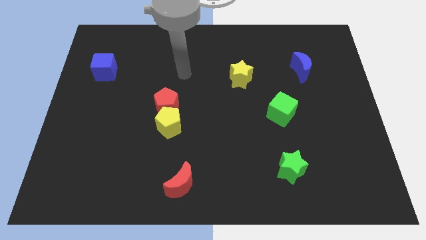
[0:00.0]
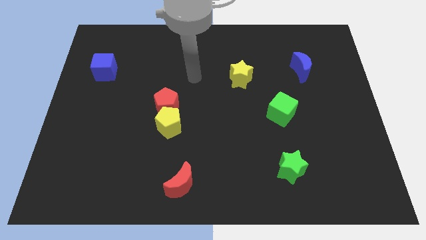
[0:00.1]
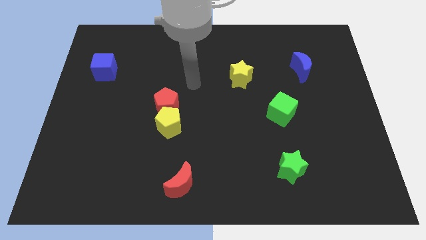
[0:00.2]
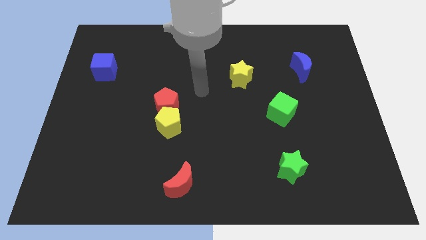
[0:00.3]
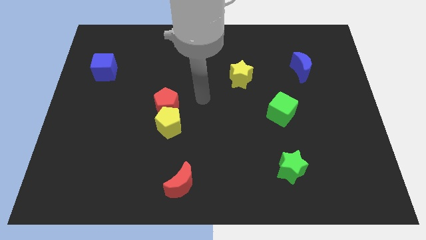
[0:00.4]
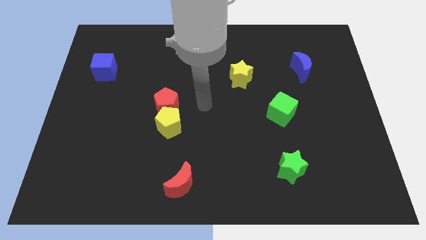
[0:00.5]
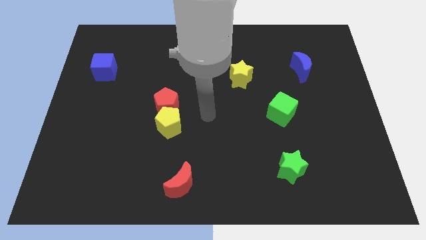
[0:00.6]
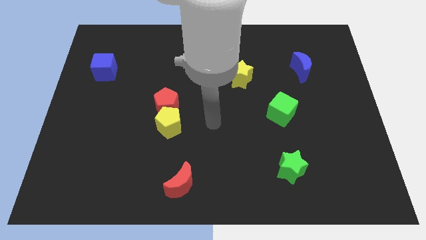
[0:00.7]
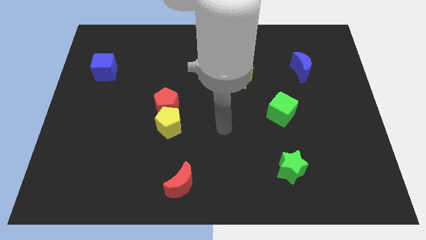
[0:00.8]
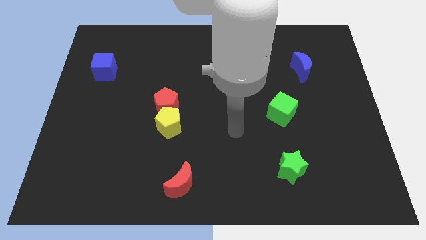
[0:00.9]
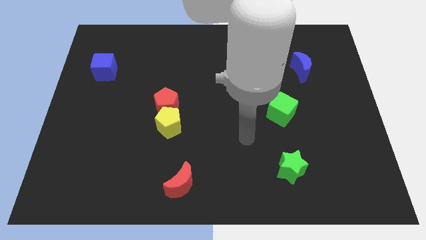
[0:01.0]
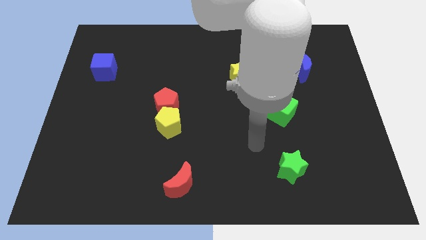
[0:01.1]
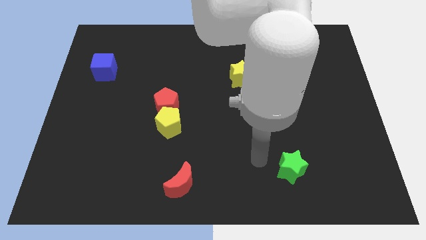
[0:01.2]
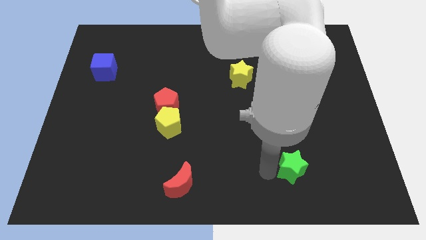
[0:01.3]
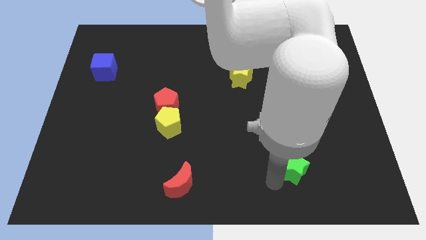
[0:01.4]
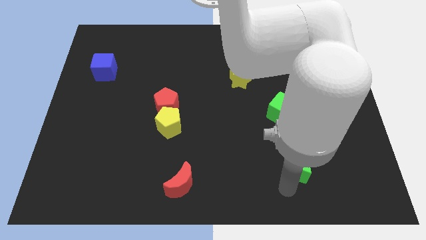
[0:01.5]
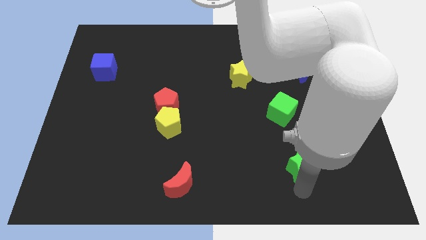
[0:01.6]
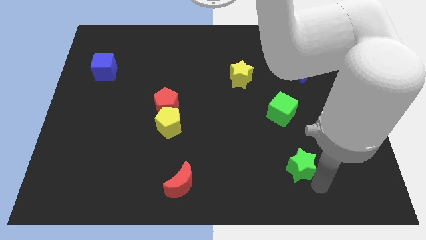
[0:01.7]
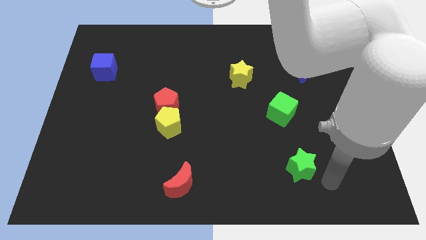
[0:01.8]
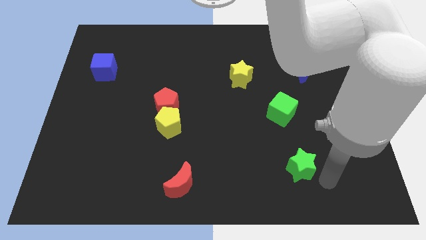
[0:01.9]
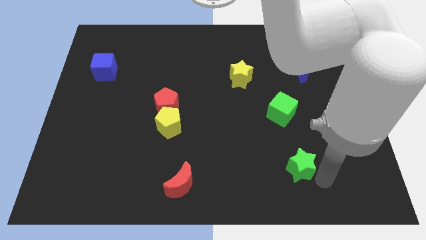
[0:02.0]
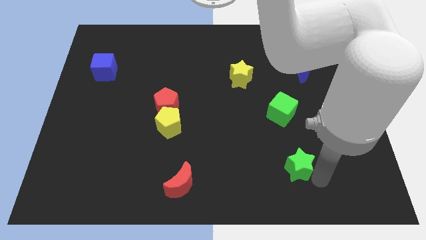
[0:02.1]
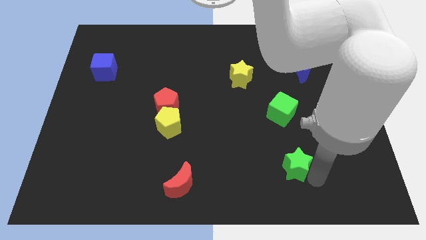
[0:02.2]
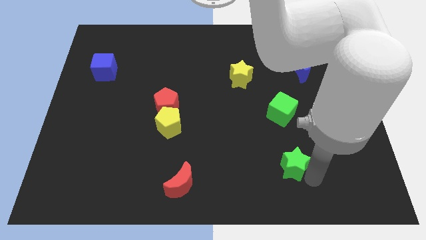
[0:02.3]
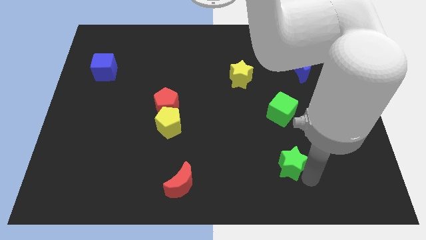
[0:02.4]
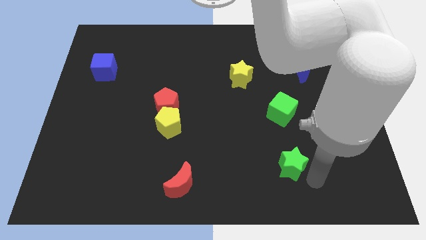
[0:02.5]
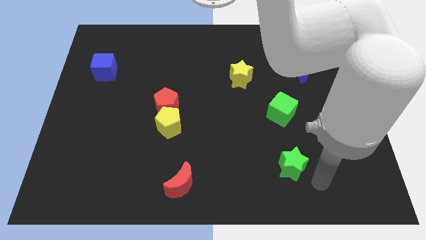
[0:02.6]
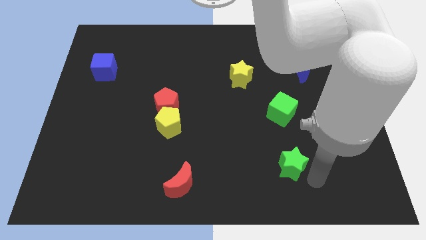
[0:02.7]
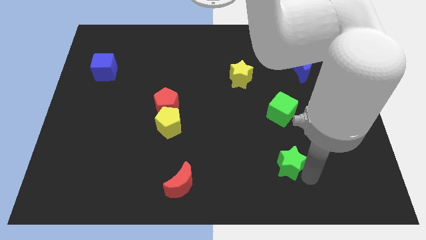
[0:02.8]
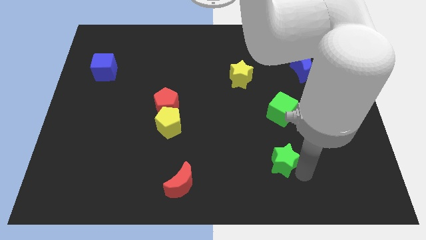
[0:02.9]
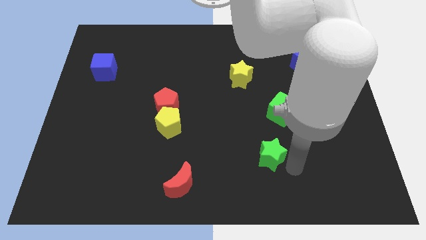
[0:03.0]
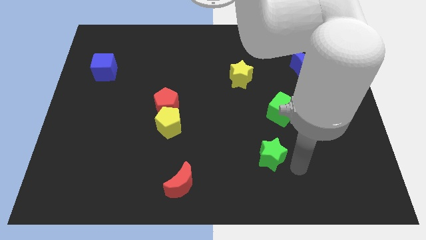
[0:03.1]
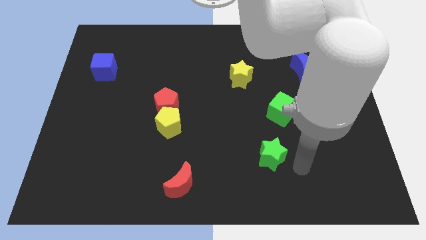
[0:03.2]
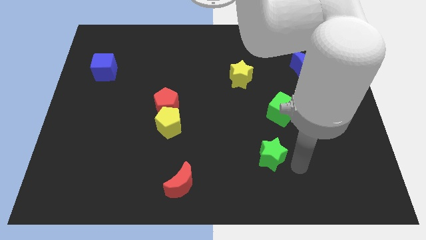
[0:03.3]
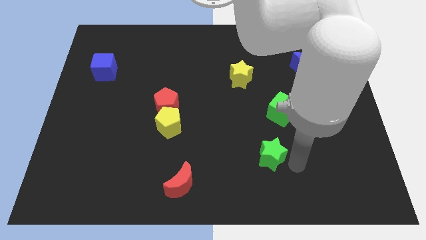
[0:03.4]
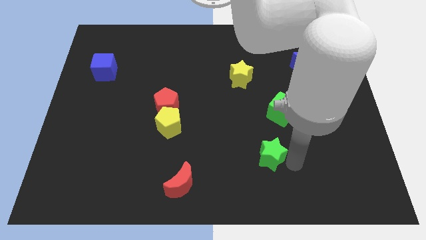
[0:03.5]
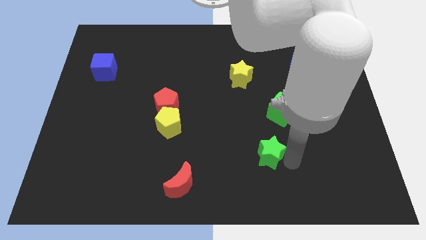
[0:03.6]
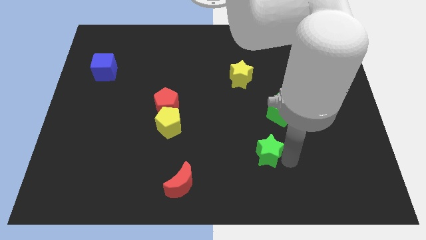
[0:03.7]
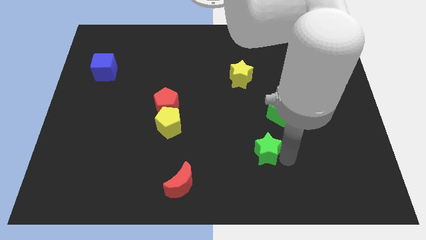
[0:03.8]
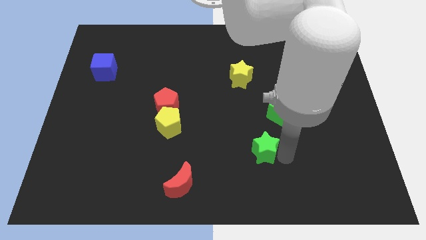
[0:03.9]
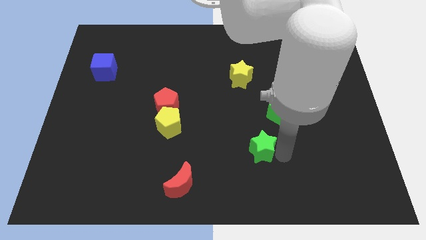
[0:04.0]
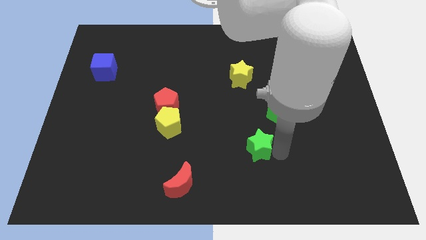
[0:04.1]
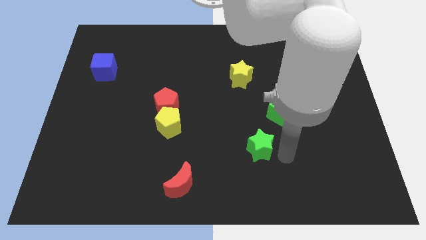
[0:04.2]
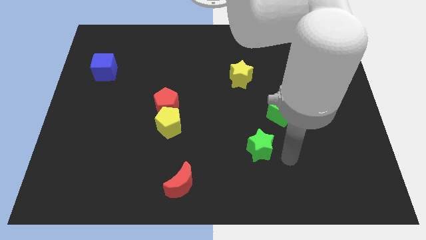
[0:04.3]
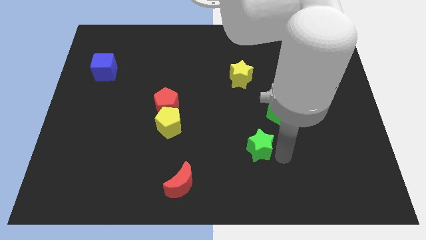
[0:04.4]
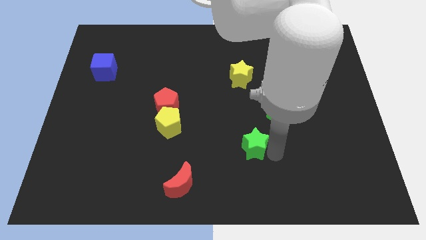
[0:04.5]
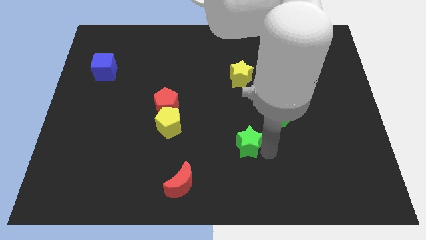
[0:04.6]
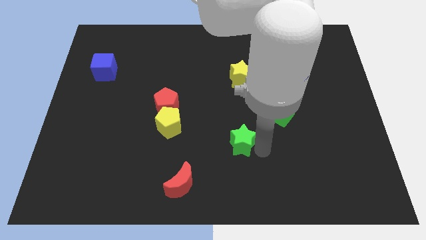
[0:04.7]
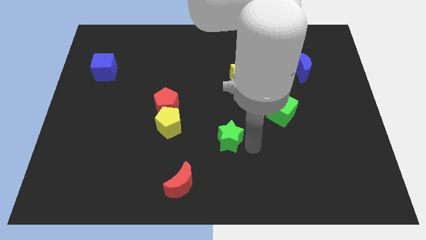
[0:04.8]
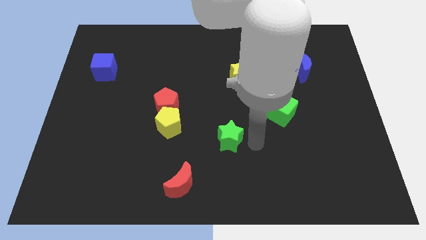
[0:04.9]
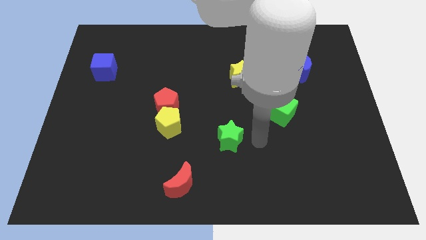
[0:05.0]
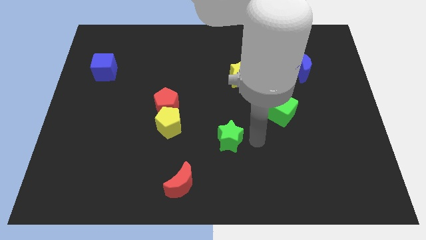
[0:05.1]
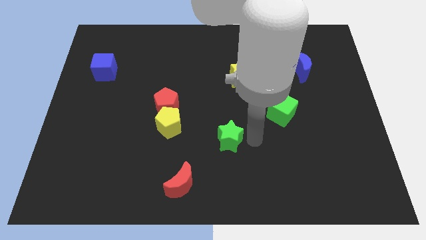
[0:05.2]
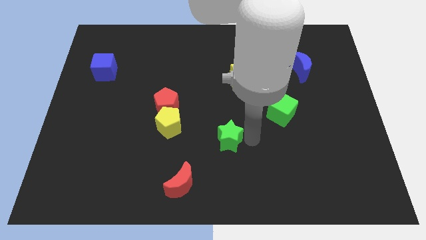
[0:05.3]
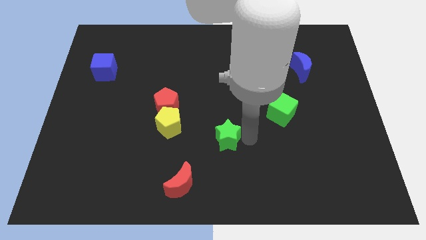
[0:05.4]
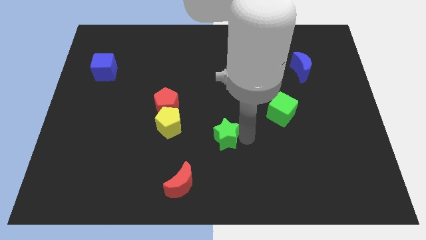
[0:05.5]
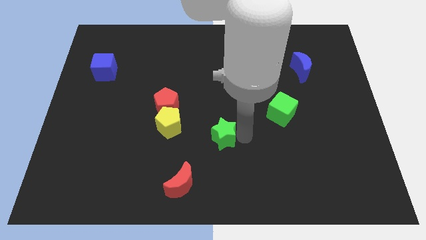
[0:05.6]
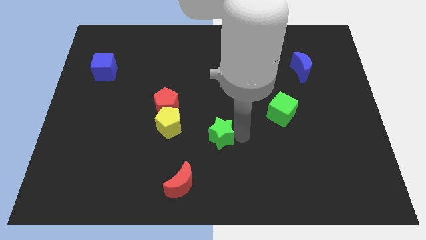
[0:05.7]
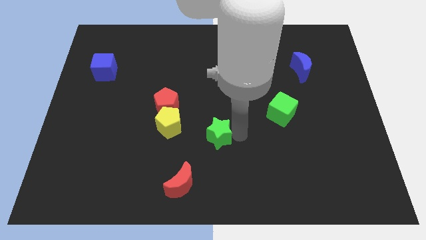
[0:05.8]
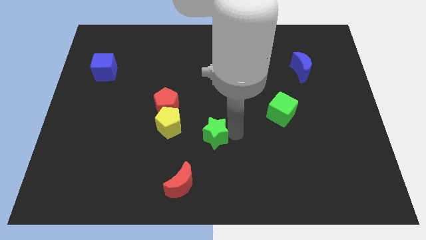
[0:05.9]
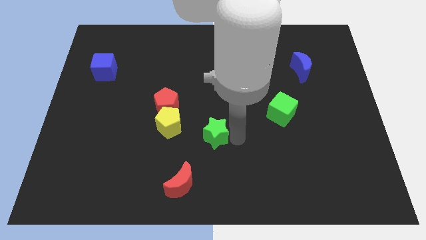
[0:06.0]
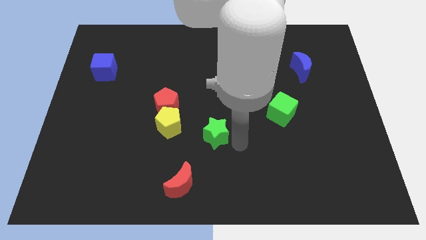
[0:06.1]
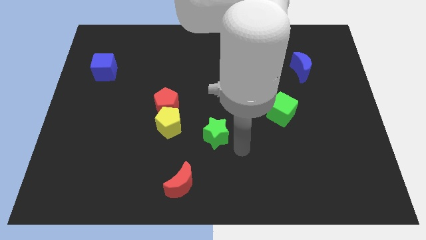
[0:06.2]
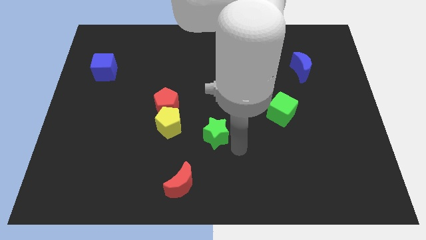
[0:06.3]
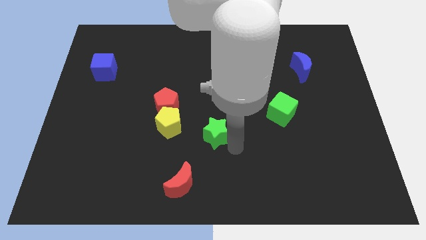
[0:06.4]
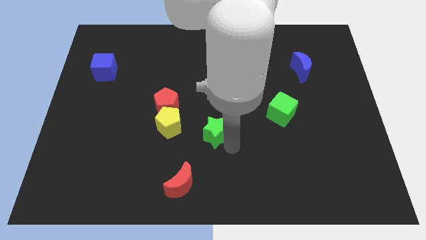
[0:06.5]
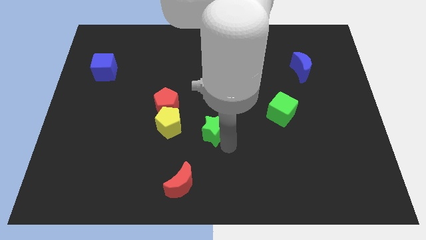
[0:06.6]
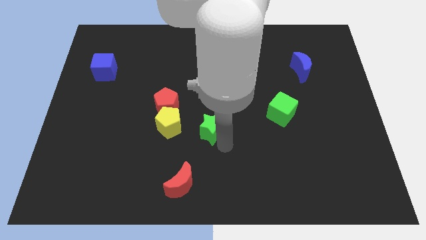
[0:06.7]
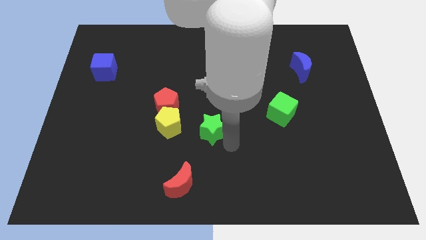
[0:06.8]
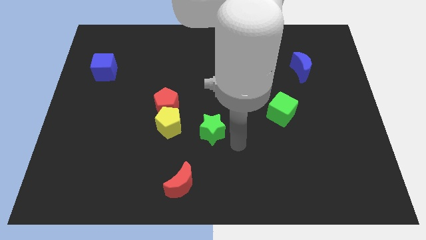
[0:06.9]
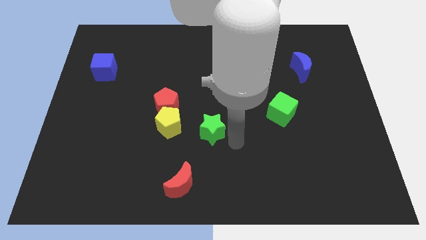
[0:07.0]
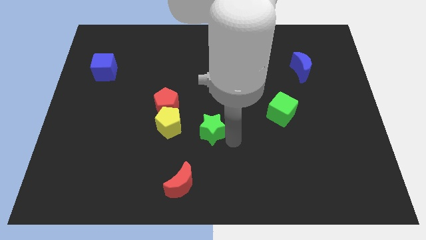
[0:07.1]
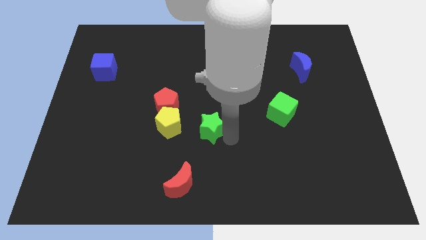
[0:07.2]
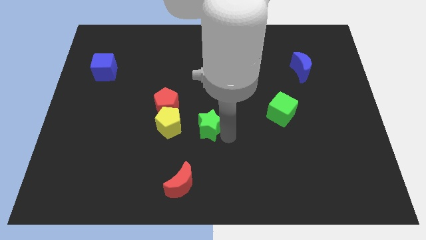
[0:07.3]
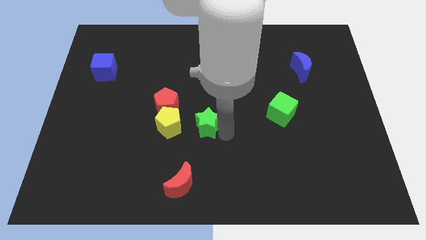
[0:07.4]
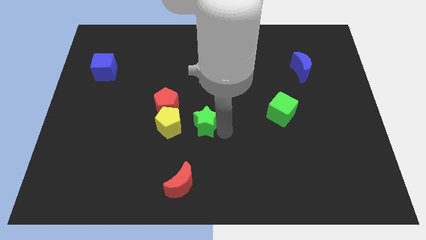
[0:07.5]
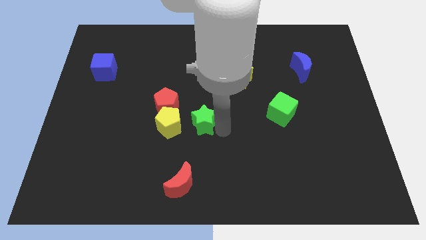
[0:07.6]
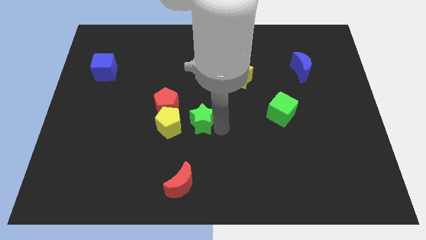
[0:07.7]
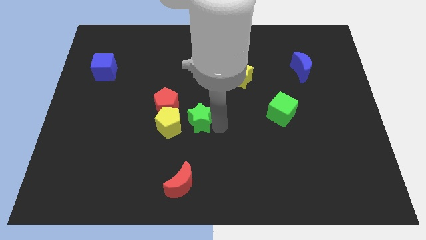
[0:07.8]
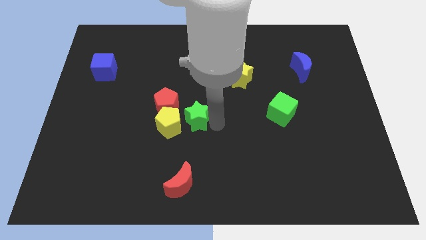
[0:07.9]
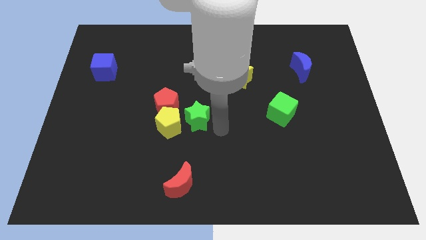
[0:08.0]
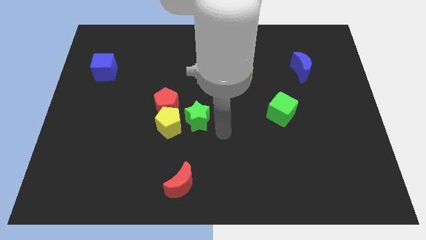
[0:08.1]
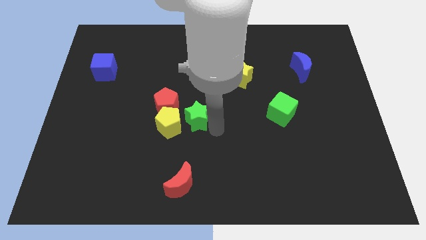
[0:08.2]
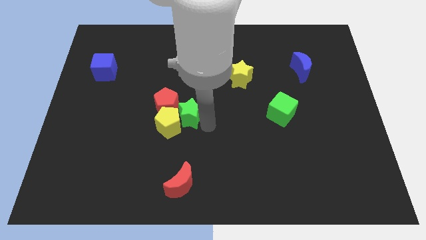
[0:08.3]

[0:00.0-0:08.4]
push the green star next to the red pentagon
